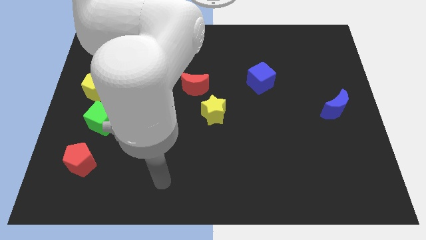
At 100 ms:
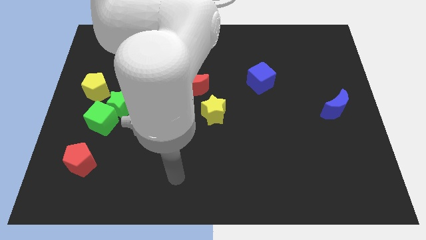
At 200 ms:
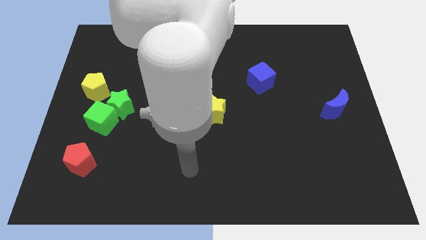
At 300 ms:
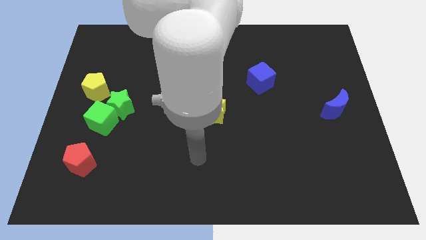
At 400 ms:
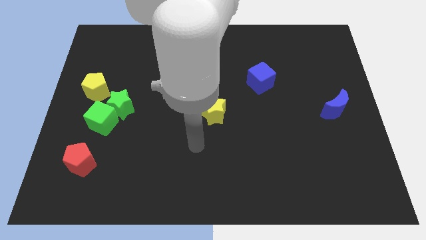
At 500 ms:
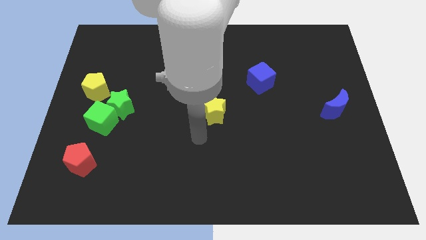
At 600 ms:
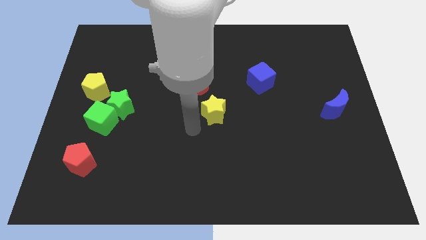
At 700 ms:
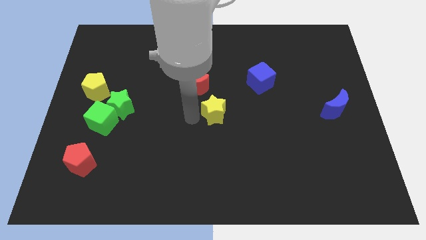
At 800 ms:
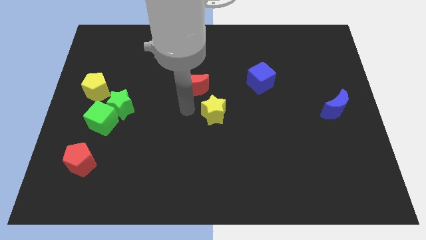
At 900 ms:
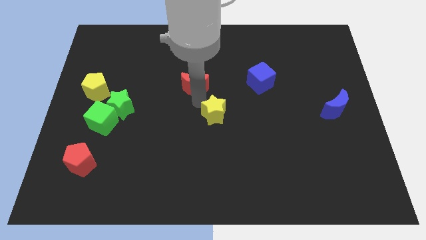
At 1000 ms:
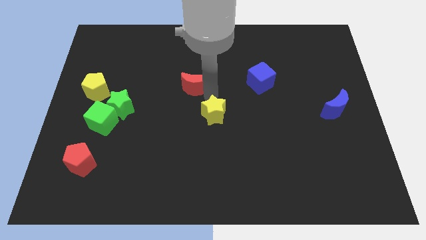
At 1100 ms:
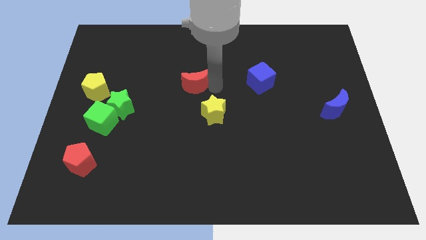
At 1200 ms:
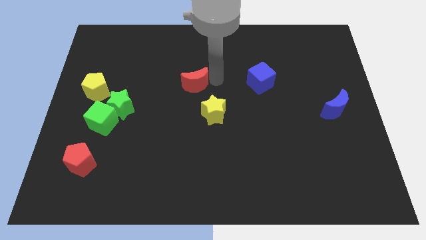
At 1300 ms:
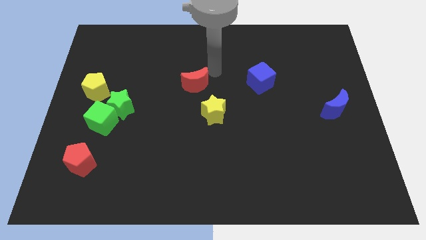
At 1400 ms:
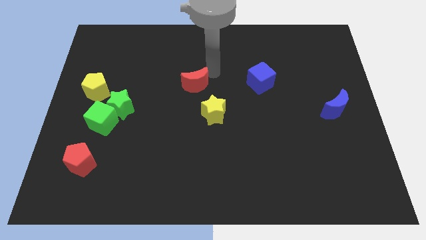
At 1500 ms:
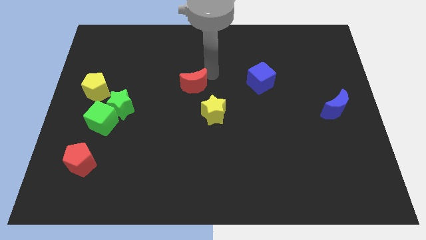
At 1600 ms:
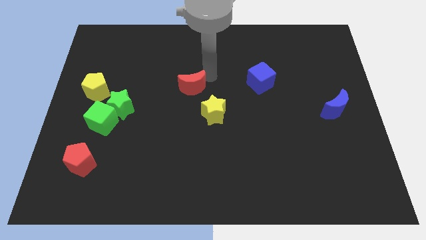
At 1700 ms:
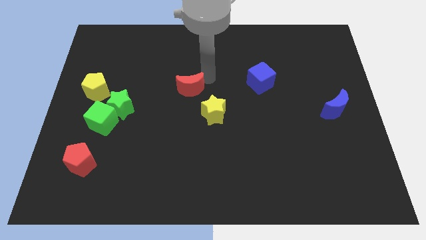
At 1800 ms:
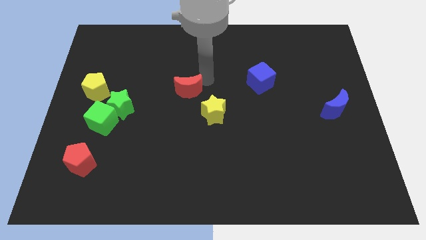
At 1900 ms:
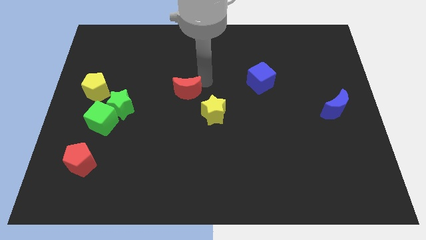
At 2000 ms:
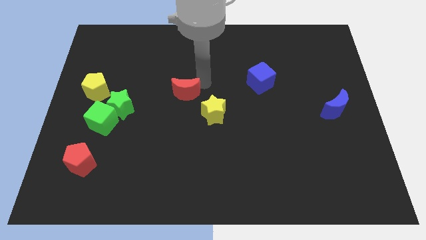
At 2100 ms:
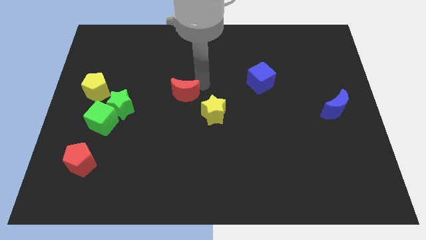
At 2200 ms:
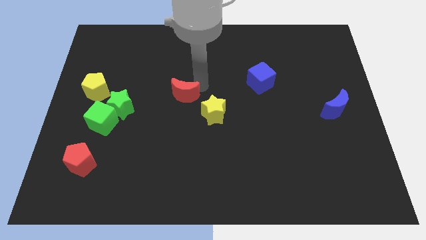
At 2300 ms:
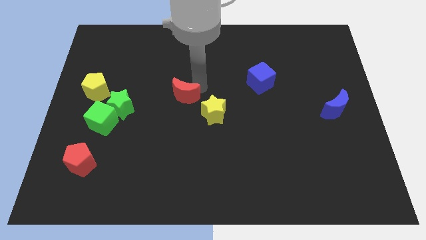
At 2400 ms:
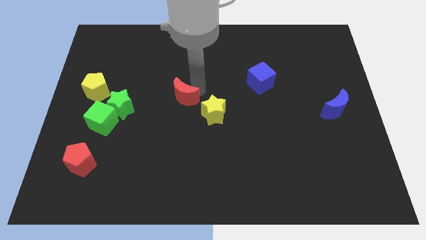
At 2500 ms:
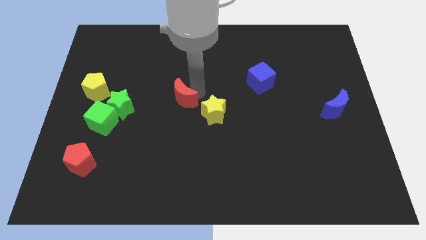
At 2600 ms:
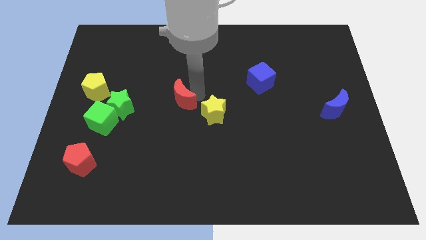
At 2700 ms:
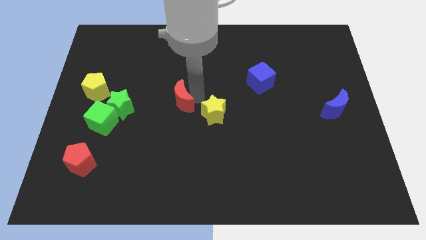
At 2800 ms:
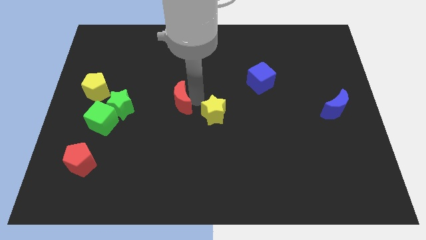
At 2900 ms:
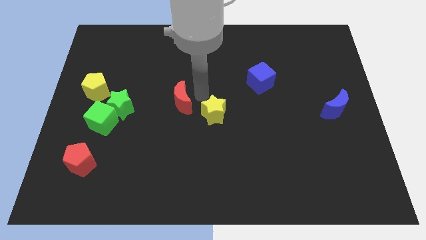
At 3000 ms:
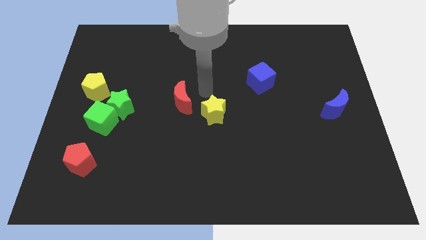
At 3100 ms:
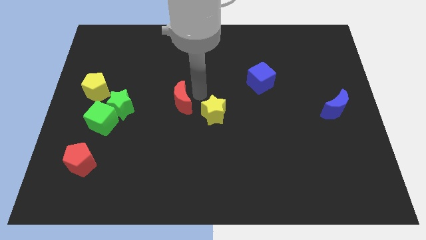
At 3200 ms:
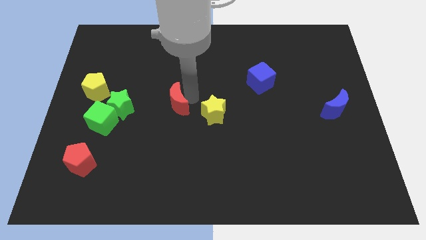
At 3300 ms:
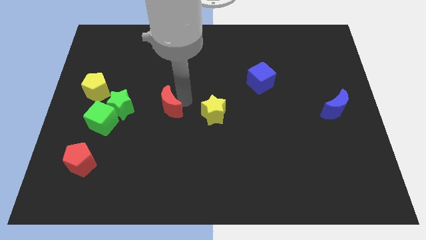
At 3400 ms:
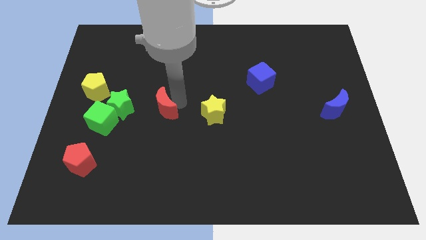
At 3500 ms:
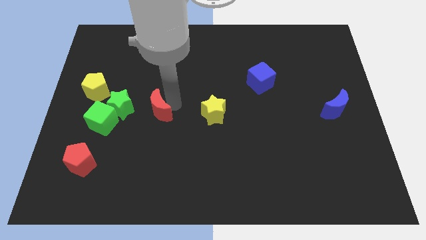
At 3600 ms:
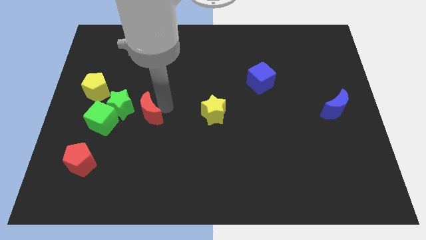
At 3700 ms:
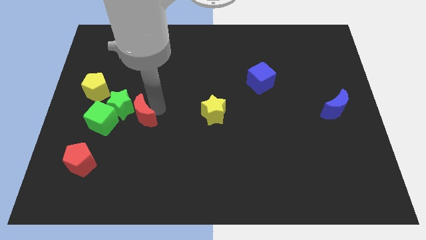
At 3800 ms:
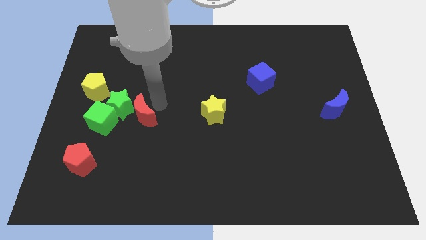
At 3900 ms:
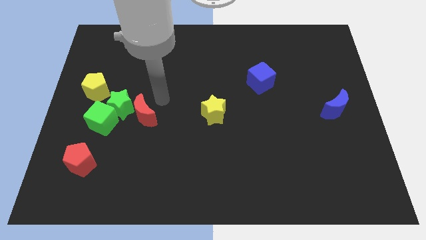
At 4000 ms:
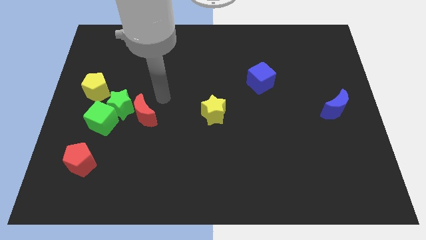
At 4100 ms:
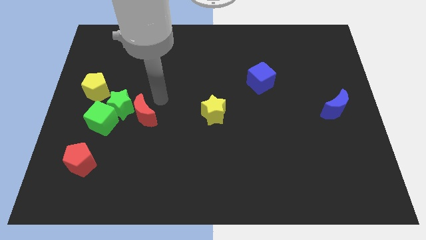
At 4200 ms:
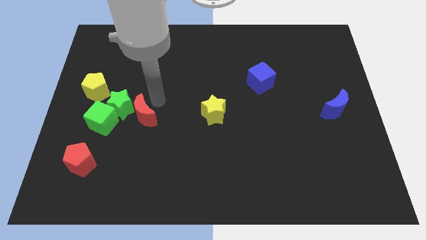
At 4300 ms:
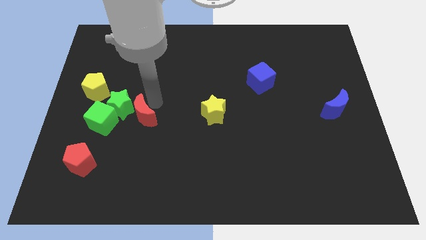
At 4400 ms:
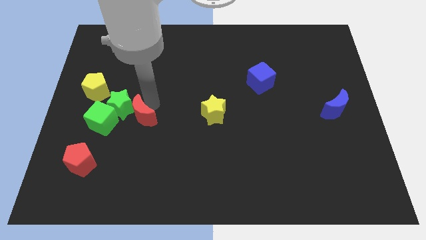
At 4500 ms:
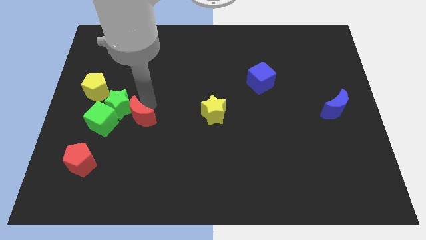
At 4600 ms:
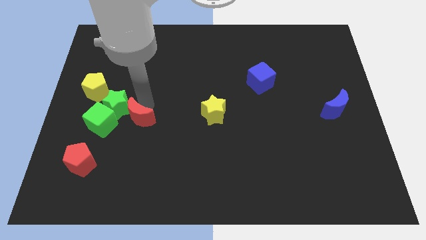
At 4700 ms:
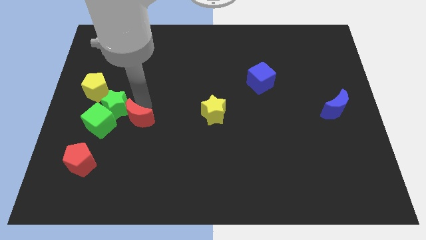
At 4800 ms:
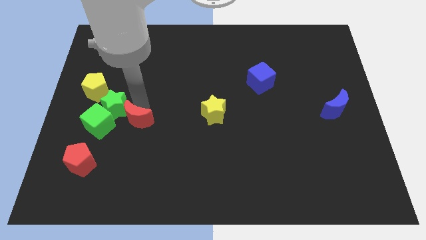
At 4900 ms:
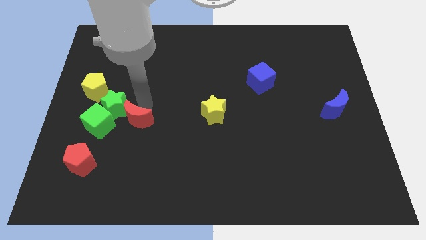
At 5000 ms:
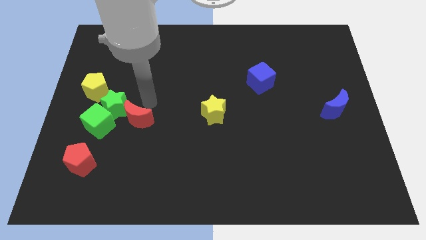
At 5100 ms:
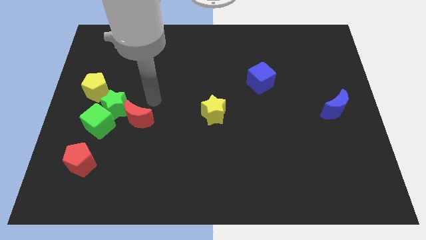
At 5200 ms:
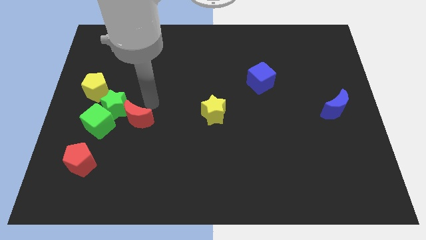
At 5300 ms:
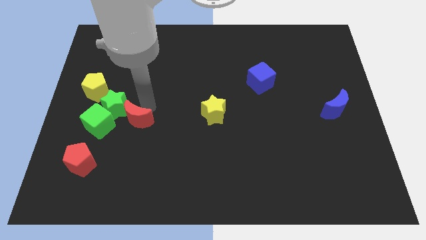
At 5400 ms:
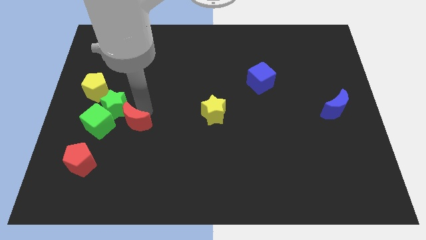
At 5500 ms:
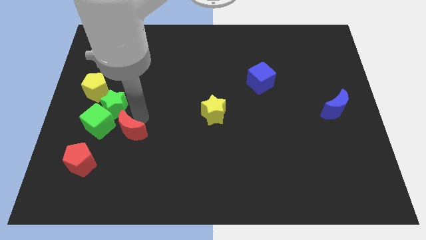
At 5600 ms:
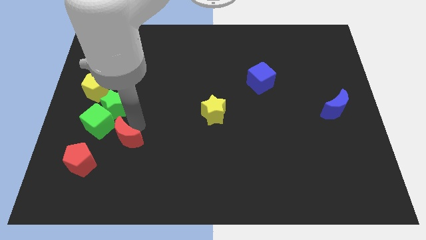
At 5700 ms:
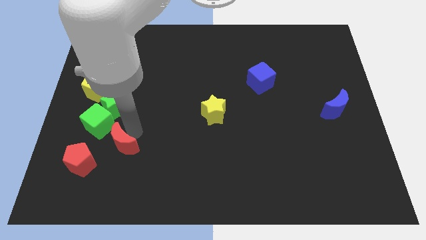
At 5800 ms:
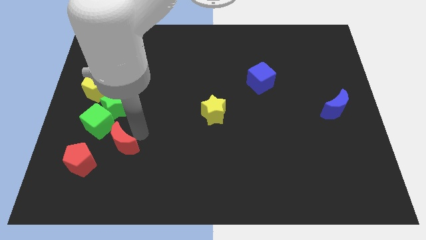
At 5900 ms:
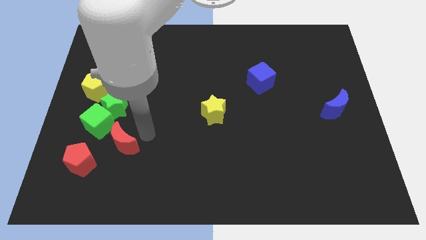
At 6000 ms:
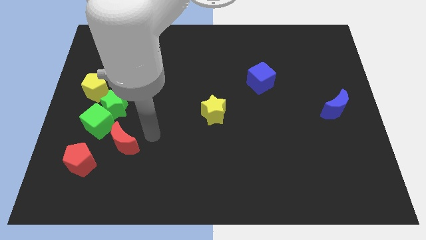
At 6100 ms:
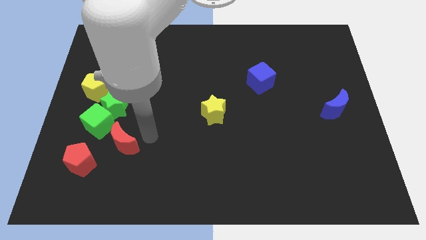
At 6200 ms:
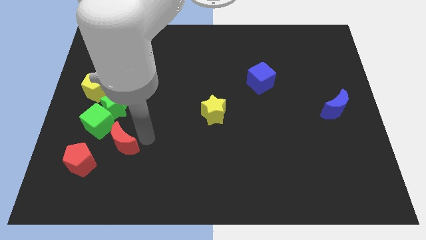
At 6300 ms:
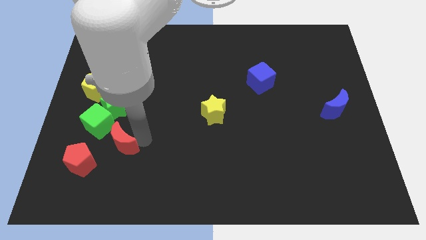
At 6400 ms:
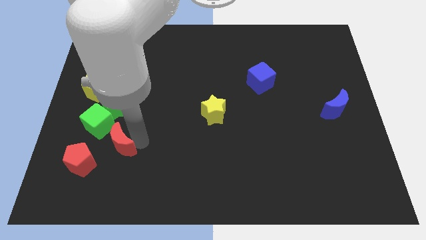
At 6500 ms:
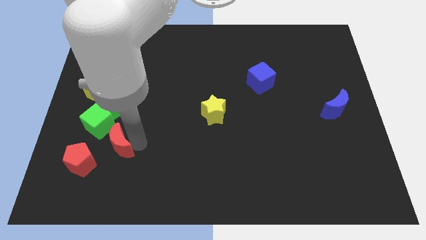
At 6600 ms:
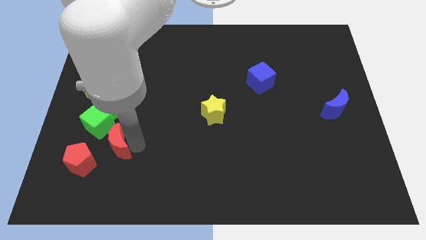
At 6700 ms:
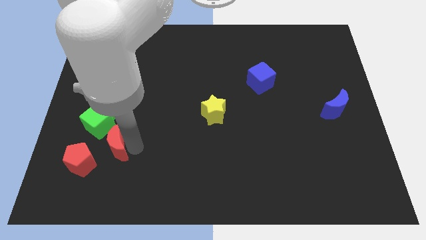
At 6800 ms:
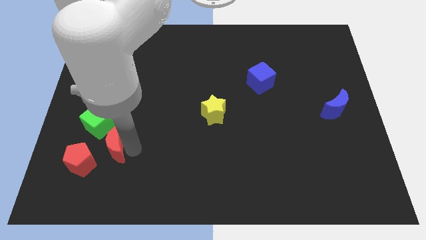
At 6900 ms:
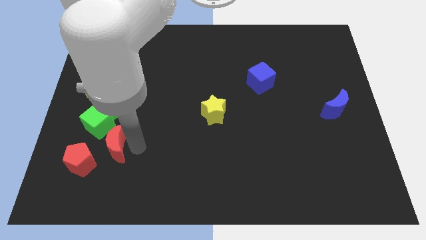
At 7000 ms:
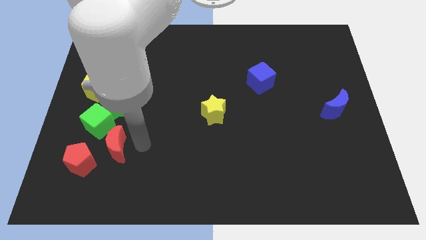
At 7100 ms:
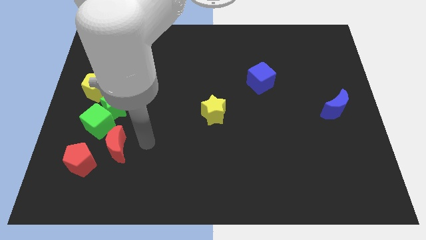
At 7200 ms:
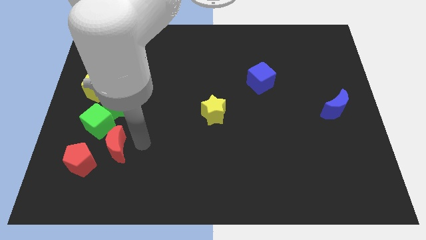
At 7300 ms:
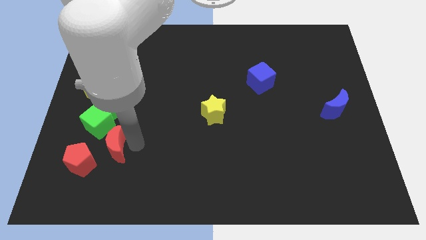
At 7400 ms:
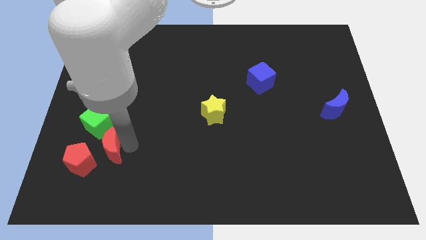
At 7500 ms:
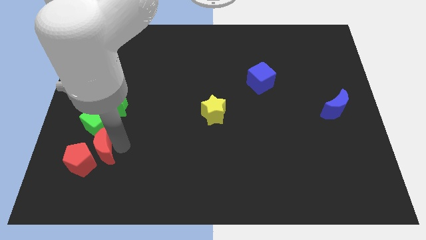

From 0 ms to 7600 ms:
put the red moon next to the red pentagon
